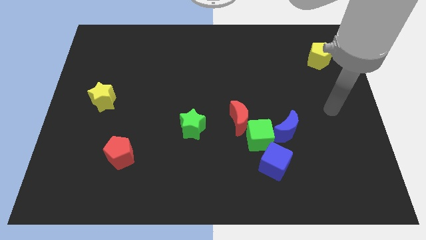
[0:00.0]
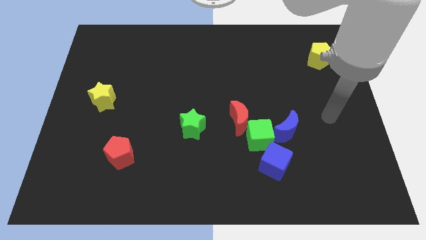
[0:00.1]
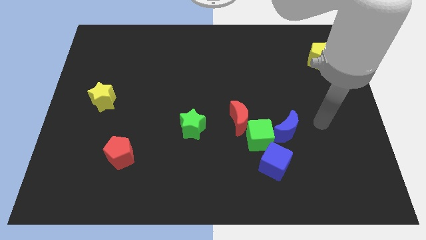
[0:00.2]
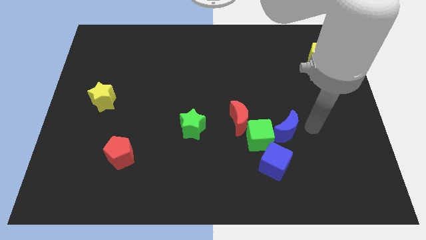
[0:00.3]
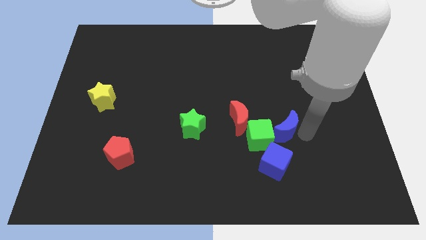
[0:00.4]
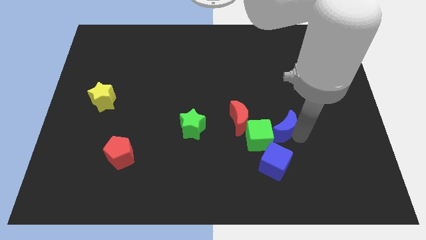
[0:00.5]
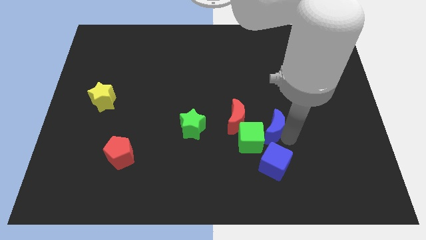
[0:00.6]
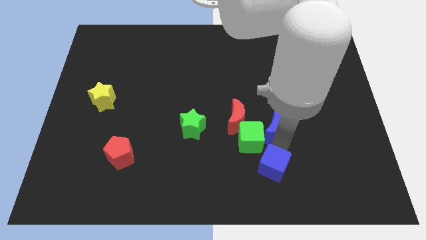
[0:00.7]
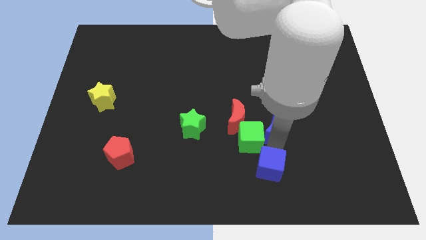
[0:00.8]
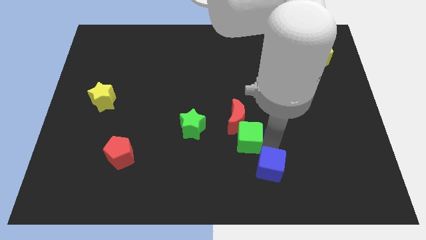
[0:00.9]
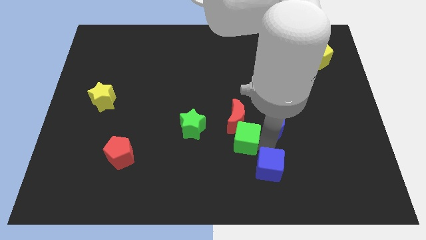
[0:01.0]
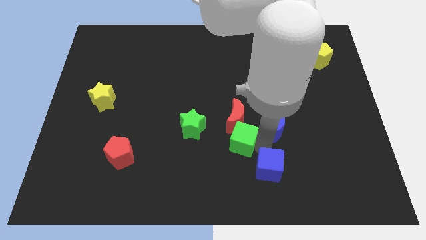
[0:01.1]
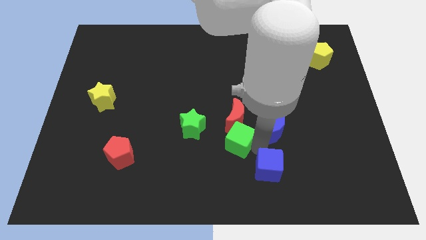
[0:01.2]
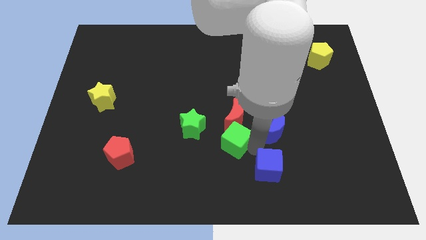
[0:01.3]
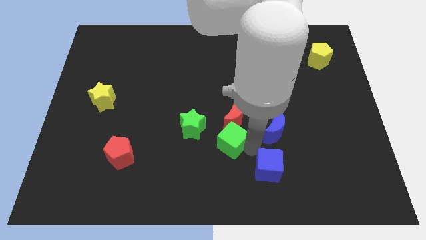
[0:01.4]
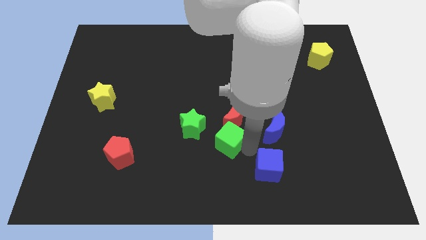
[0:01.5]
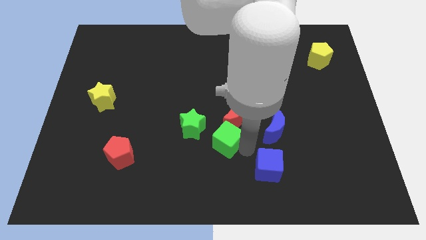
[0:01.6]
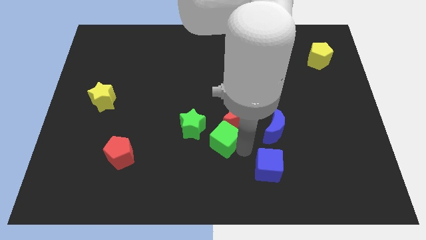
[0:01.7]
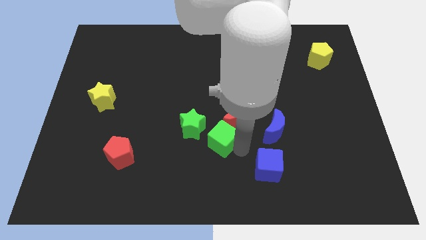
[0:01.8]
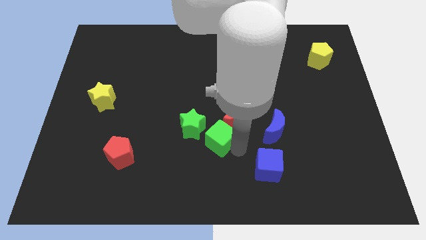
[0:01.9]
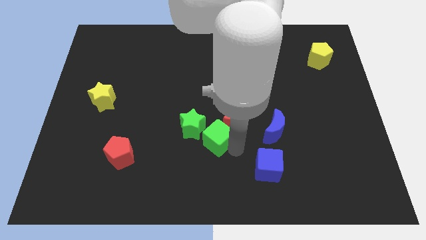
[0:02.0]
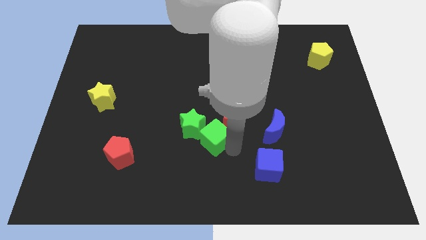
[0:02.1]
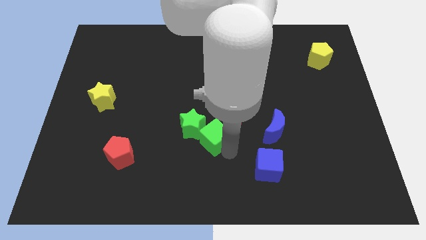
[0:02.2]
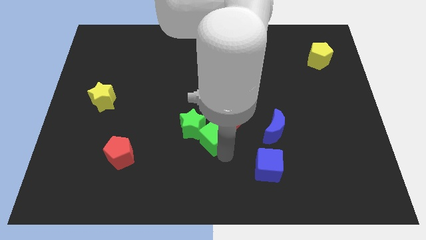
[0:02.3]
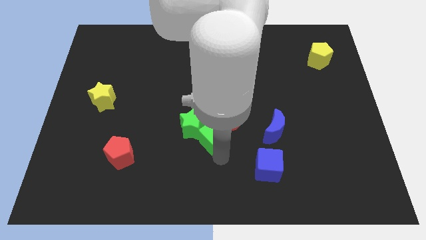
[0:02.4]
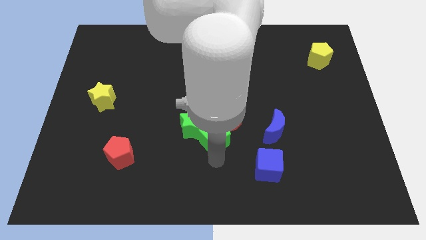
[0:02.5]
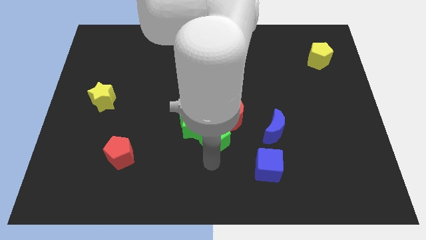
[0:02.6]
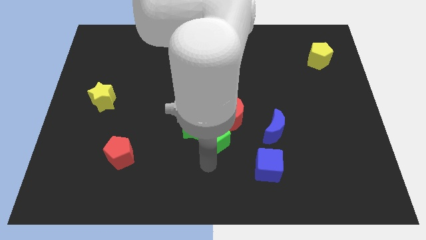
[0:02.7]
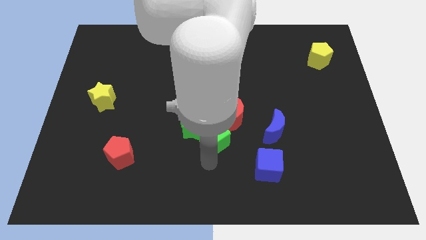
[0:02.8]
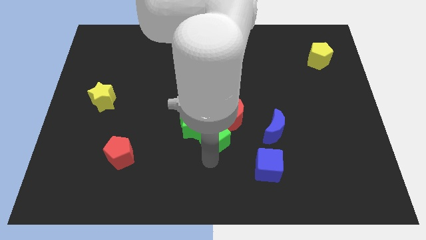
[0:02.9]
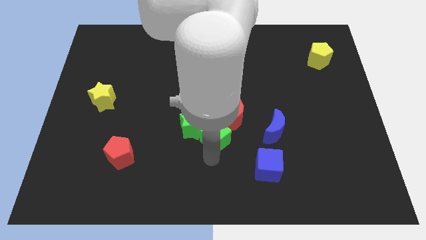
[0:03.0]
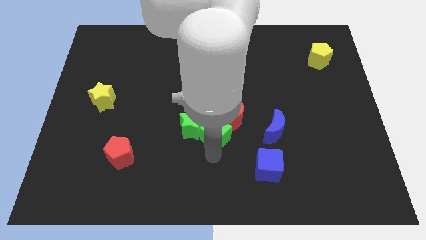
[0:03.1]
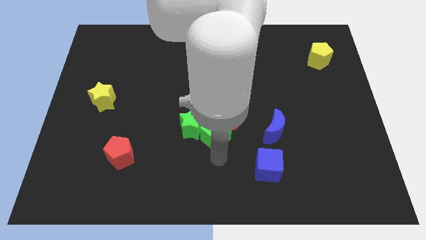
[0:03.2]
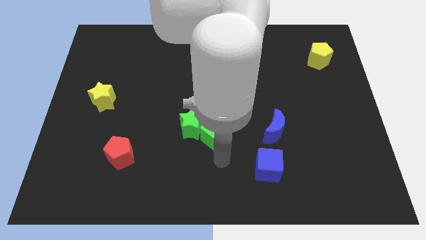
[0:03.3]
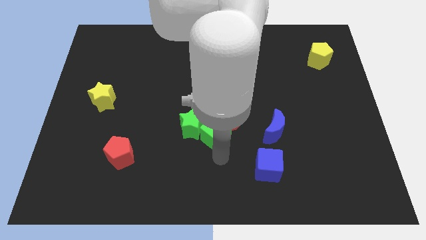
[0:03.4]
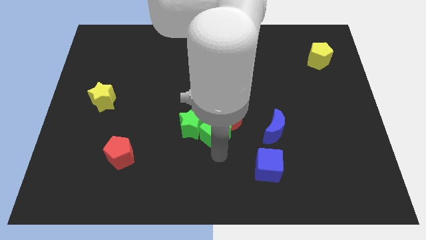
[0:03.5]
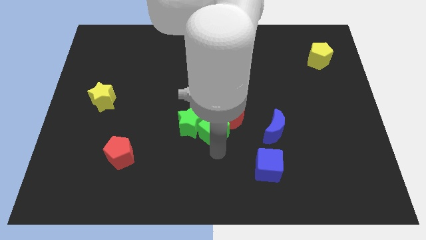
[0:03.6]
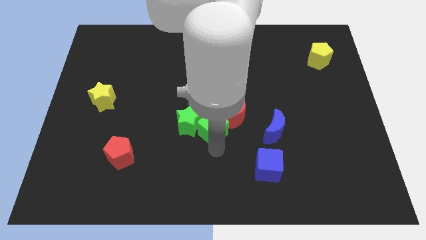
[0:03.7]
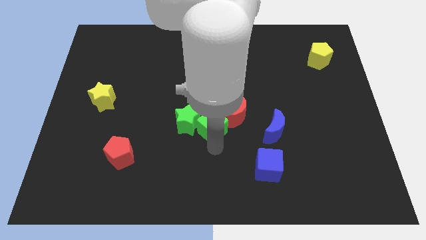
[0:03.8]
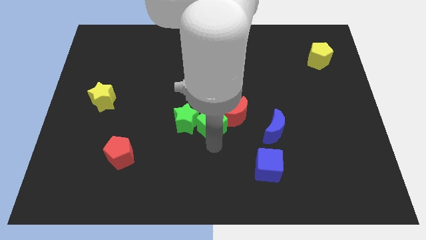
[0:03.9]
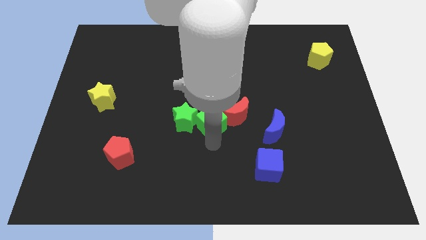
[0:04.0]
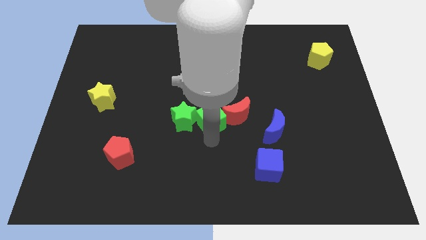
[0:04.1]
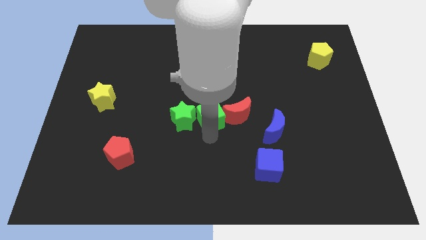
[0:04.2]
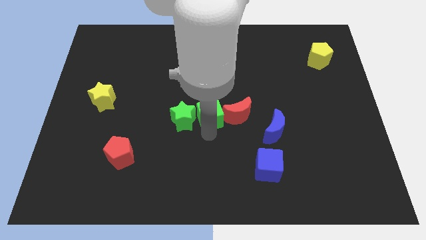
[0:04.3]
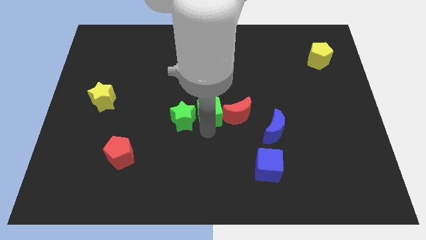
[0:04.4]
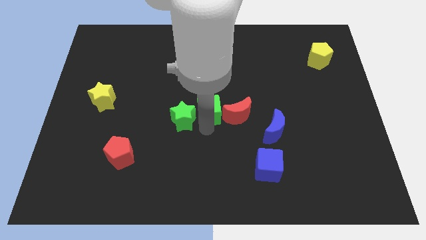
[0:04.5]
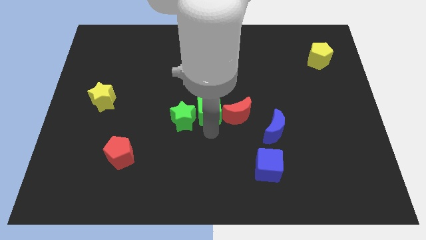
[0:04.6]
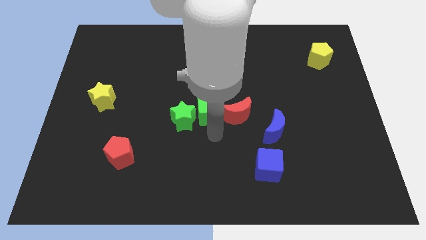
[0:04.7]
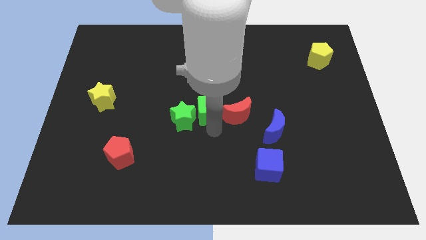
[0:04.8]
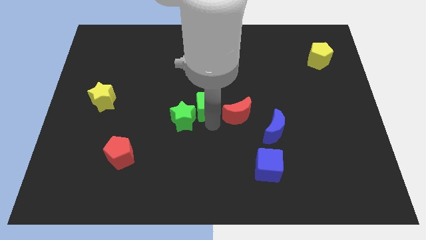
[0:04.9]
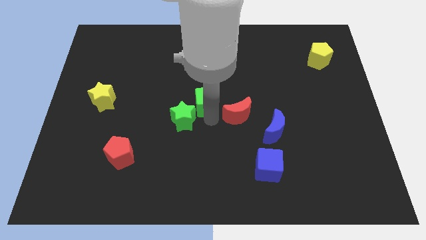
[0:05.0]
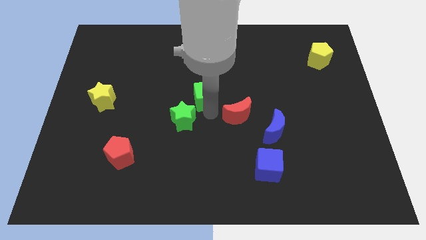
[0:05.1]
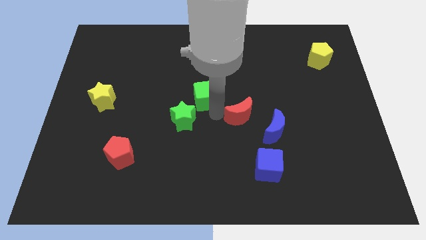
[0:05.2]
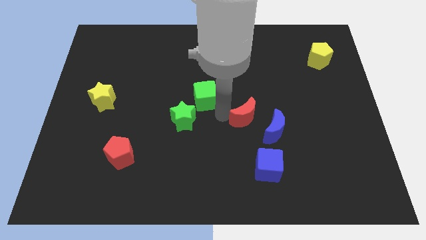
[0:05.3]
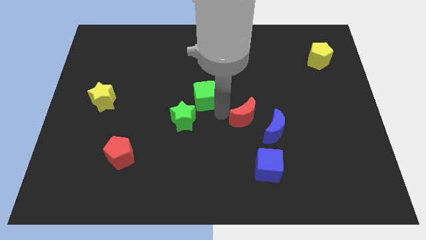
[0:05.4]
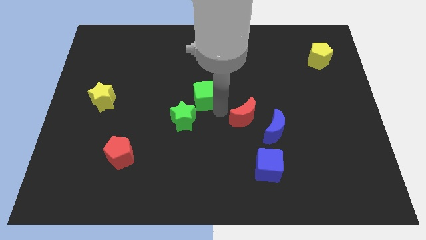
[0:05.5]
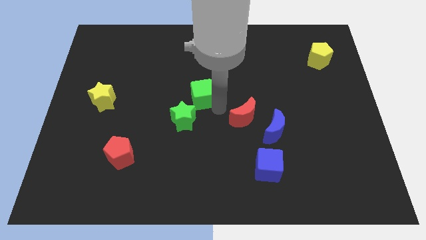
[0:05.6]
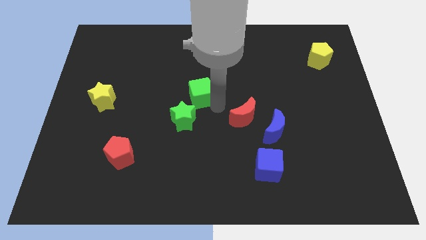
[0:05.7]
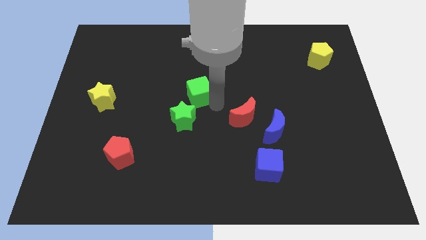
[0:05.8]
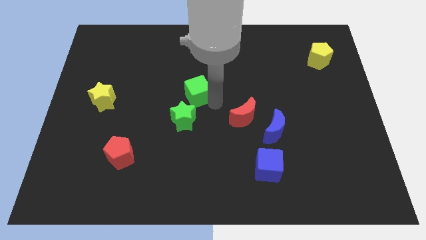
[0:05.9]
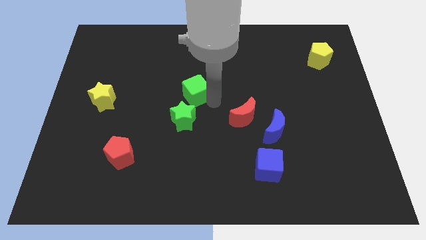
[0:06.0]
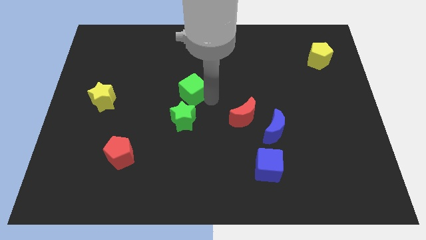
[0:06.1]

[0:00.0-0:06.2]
move the green cube up and to the left diagonally

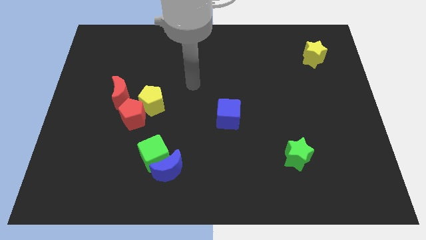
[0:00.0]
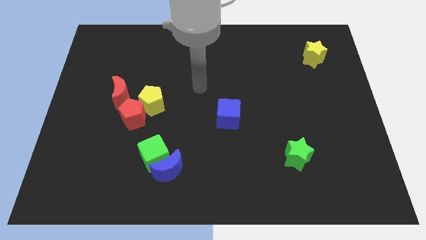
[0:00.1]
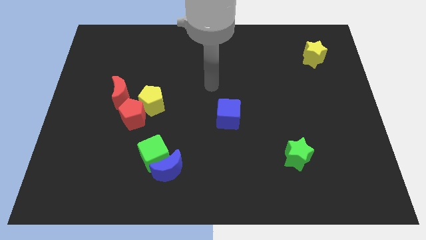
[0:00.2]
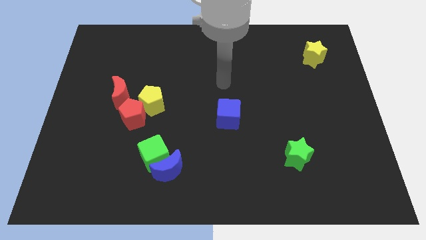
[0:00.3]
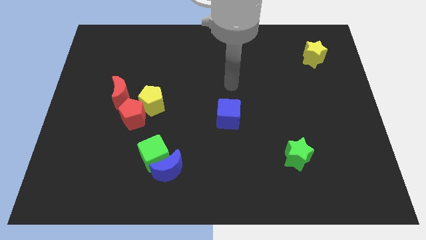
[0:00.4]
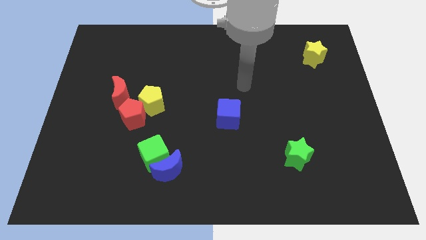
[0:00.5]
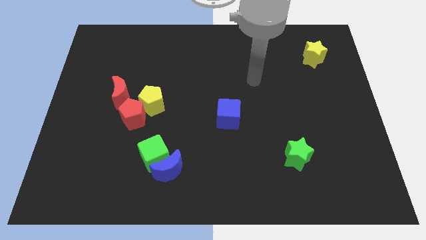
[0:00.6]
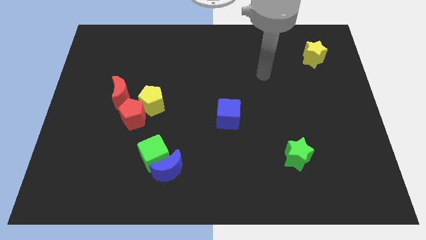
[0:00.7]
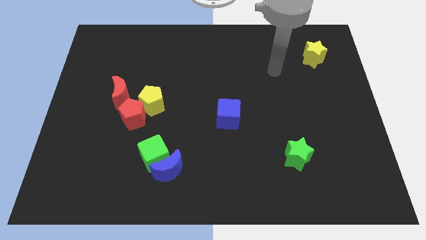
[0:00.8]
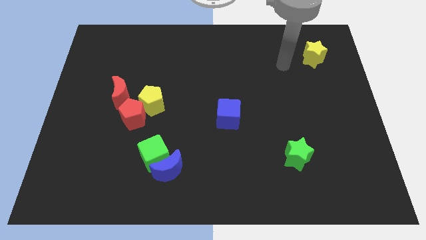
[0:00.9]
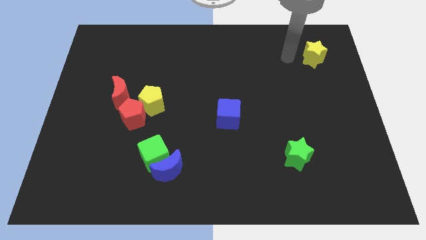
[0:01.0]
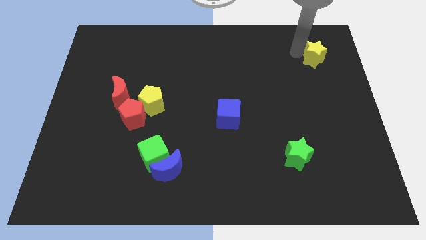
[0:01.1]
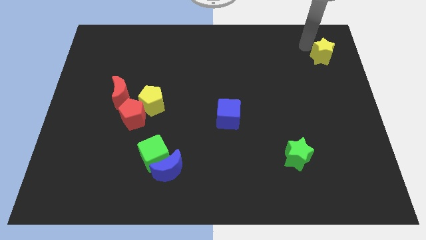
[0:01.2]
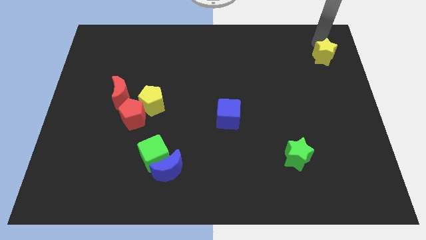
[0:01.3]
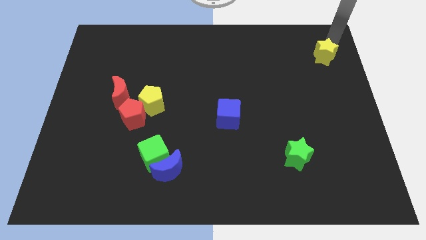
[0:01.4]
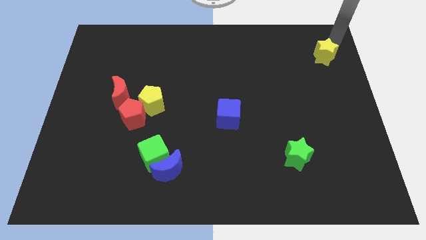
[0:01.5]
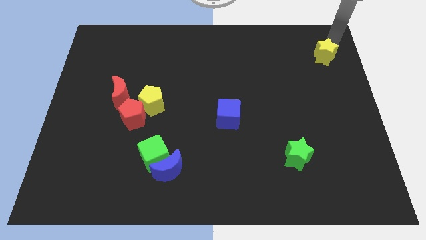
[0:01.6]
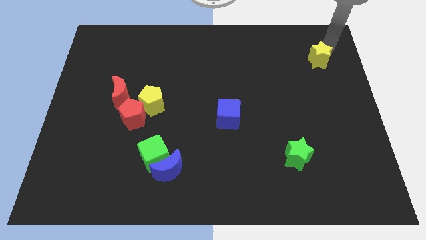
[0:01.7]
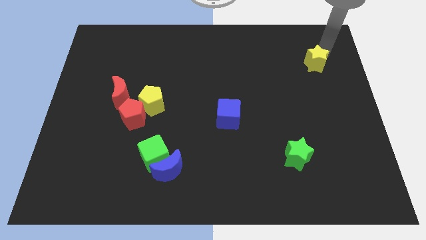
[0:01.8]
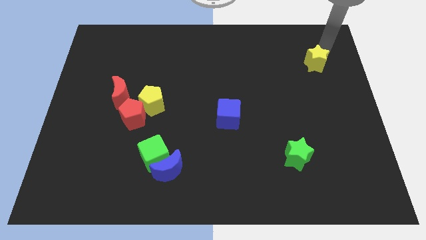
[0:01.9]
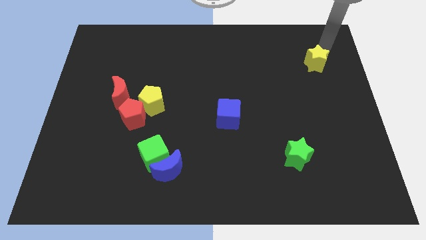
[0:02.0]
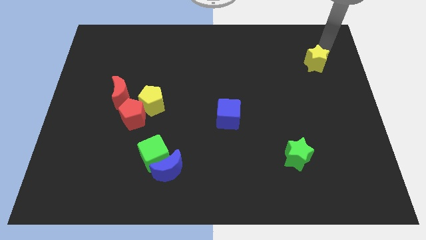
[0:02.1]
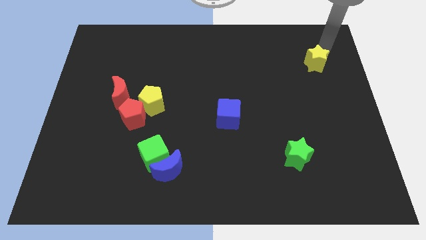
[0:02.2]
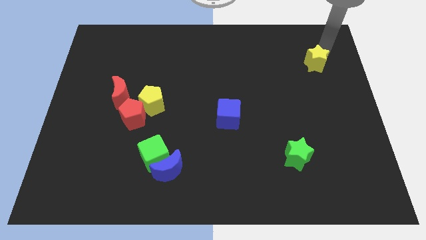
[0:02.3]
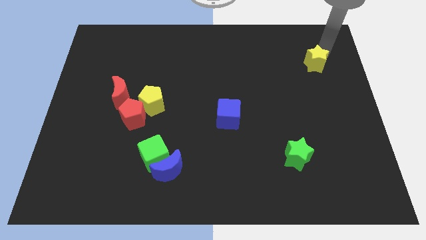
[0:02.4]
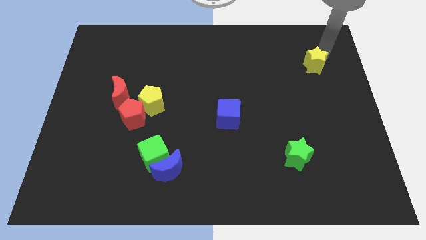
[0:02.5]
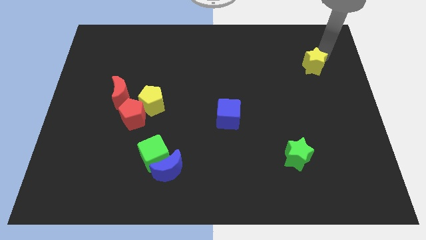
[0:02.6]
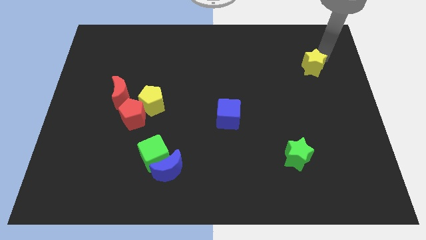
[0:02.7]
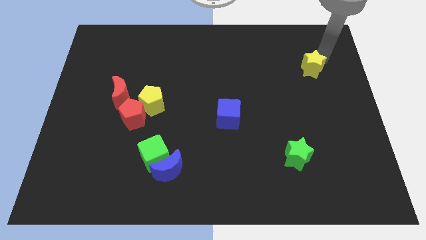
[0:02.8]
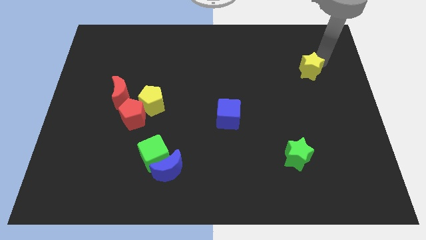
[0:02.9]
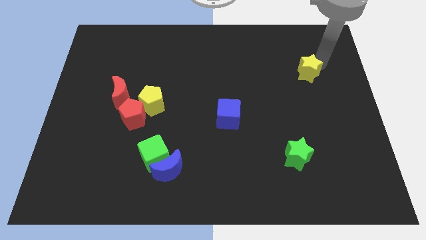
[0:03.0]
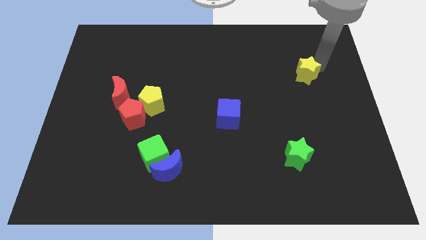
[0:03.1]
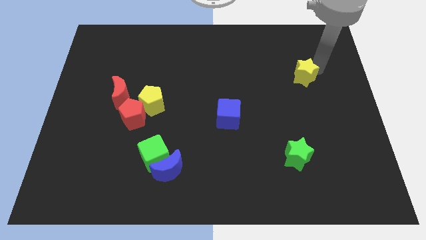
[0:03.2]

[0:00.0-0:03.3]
slightly slide the yellow star diagonally downwards and to the left
